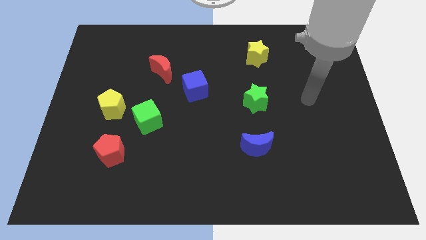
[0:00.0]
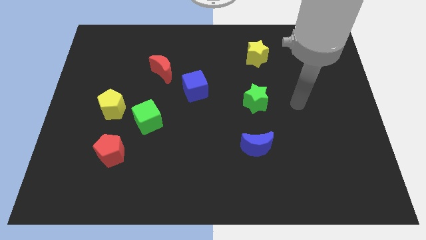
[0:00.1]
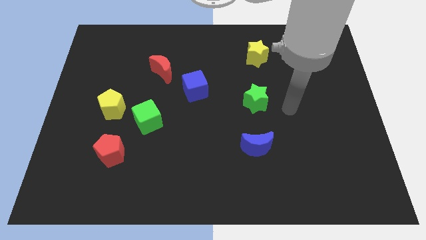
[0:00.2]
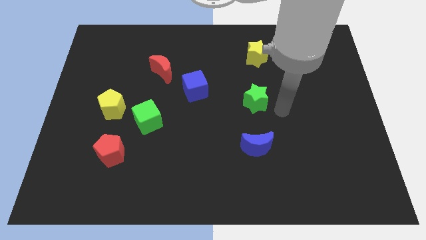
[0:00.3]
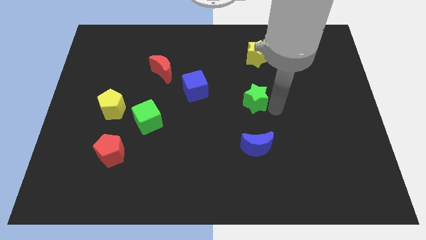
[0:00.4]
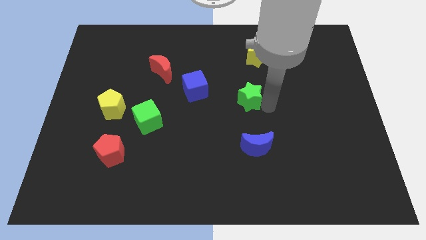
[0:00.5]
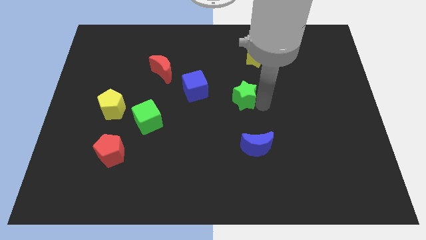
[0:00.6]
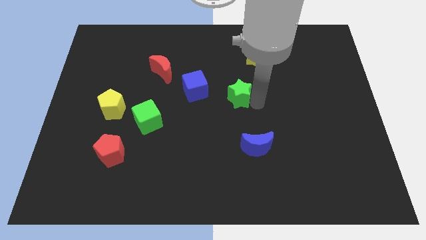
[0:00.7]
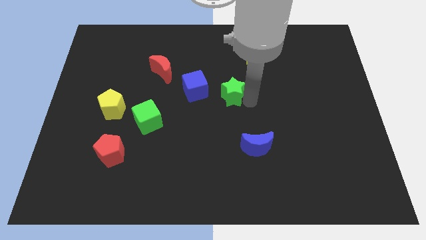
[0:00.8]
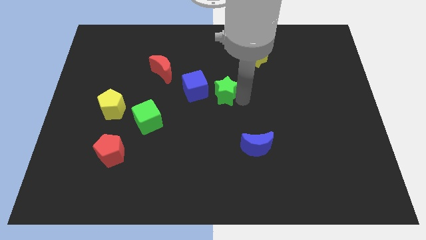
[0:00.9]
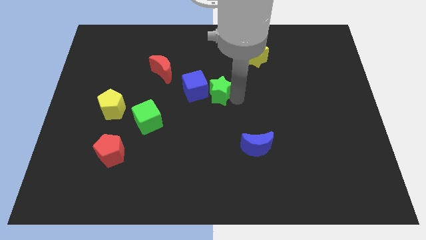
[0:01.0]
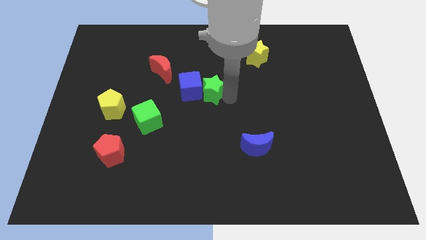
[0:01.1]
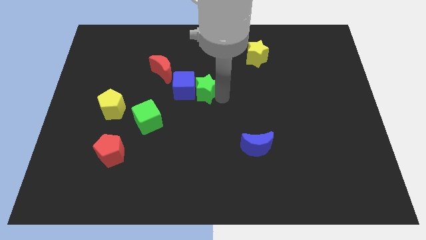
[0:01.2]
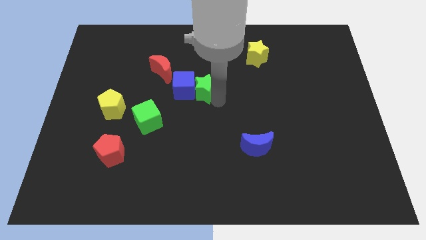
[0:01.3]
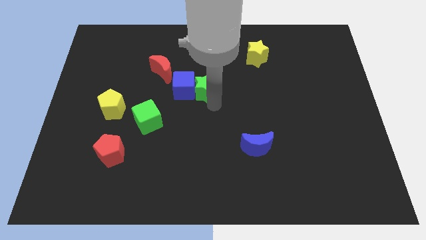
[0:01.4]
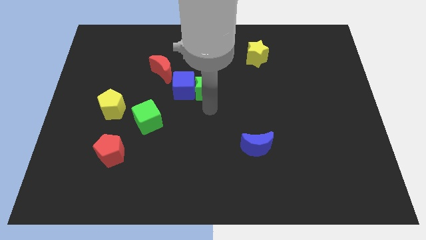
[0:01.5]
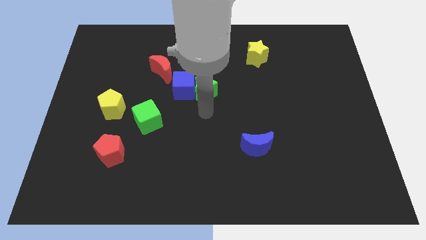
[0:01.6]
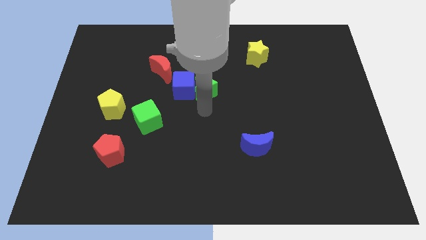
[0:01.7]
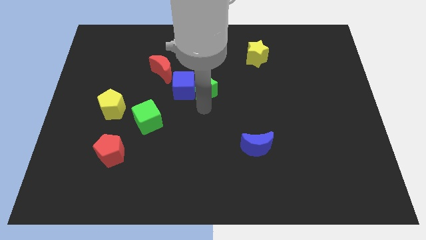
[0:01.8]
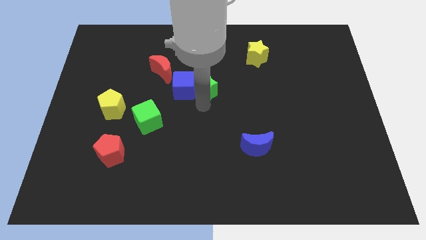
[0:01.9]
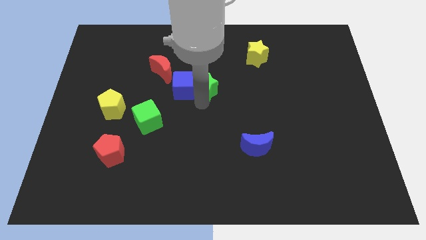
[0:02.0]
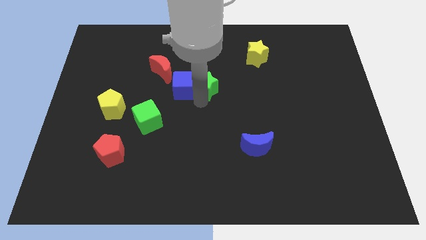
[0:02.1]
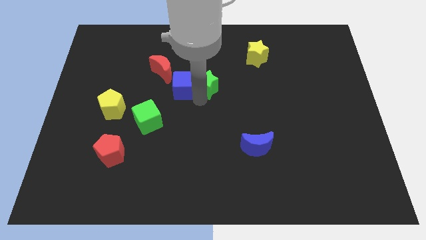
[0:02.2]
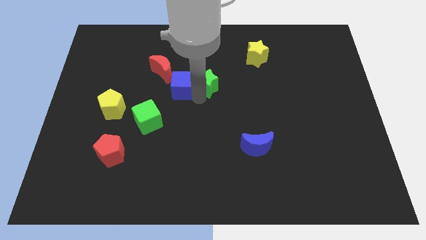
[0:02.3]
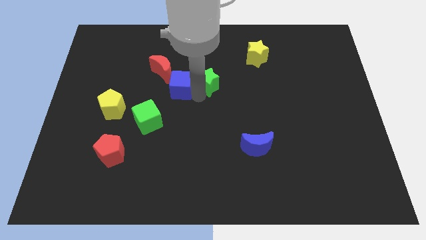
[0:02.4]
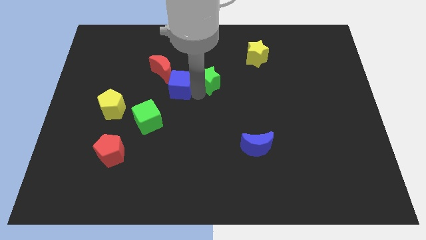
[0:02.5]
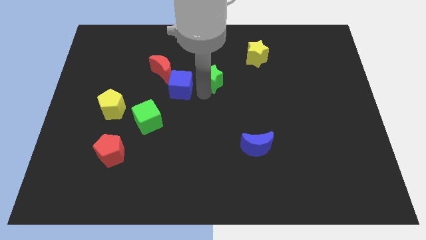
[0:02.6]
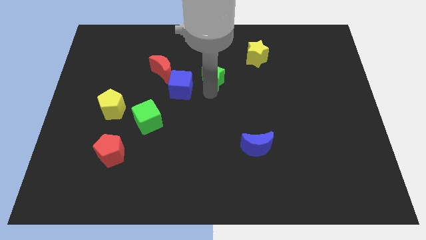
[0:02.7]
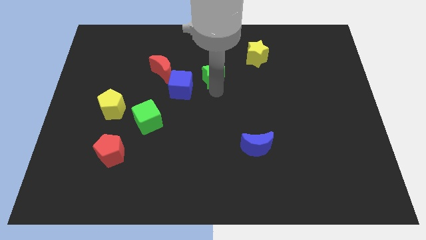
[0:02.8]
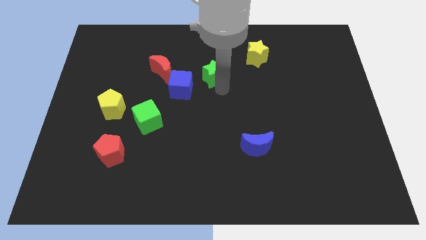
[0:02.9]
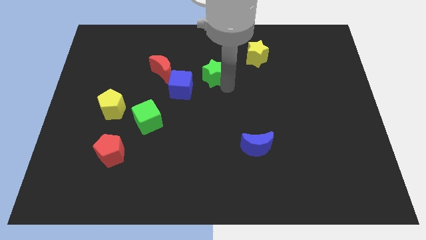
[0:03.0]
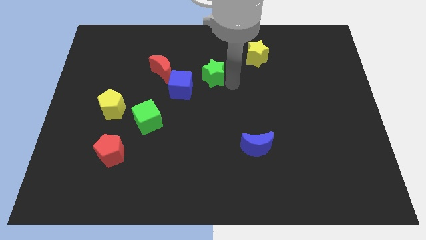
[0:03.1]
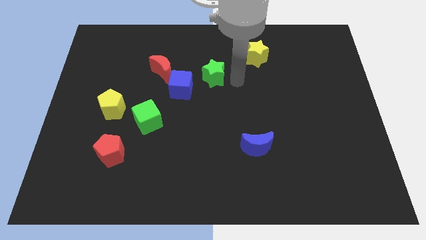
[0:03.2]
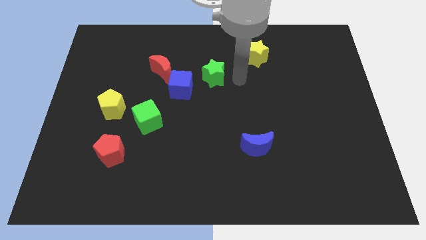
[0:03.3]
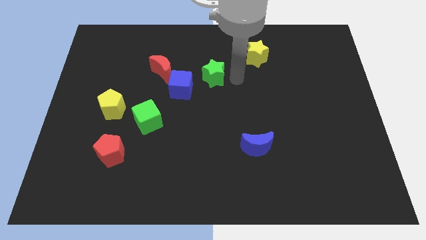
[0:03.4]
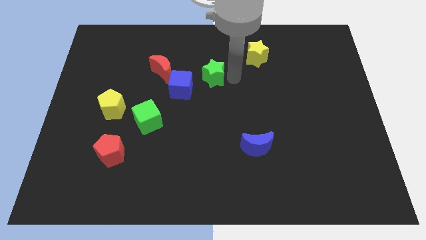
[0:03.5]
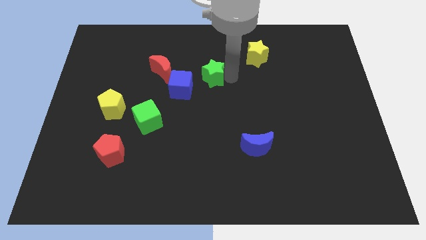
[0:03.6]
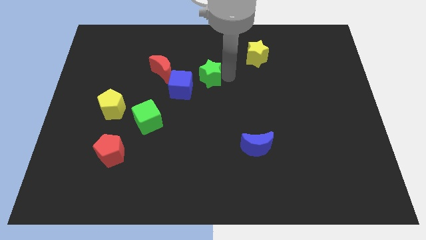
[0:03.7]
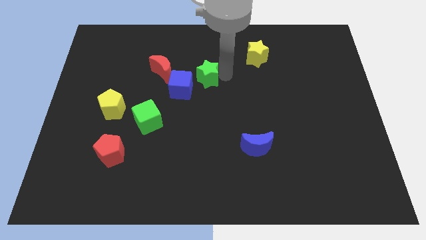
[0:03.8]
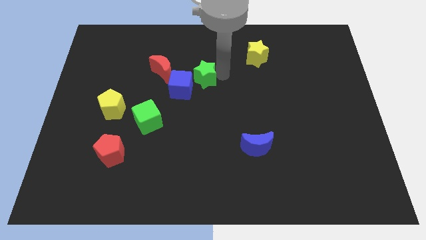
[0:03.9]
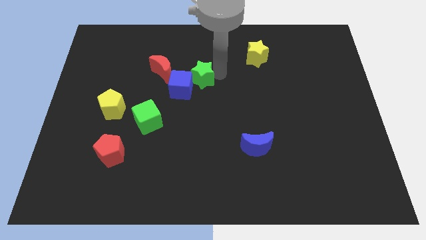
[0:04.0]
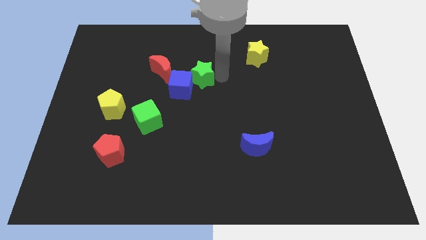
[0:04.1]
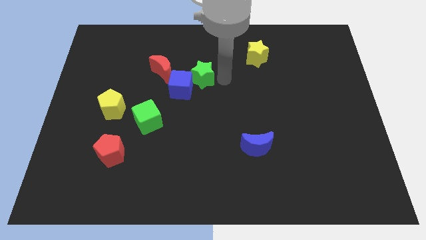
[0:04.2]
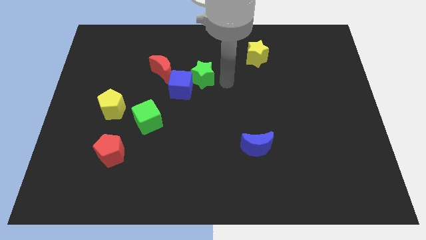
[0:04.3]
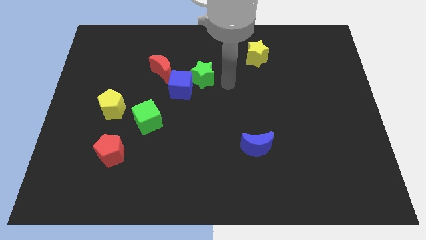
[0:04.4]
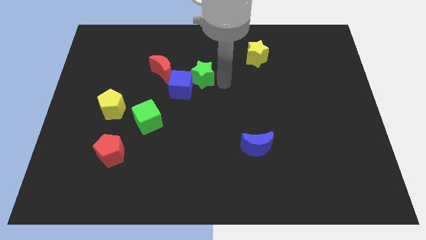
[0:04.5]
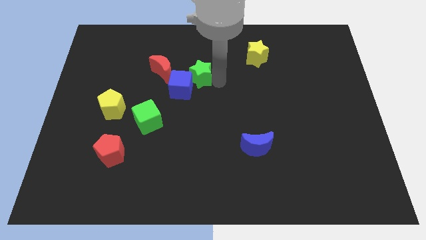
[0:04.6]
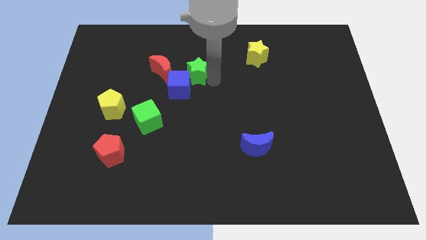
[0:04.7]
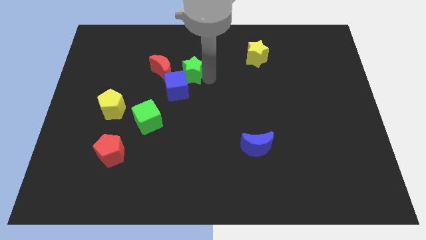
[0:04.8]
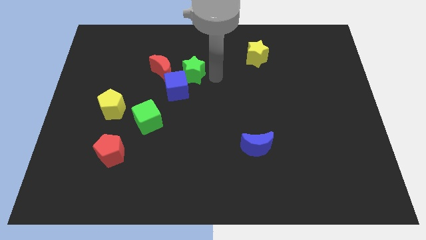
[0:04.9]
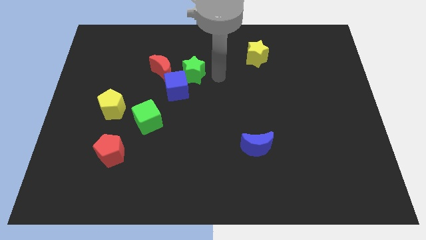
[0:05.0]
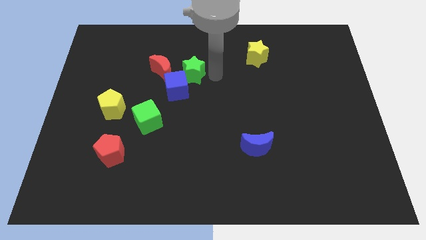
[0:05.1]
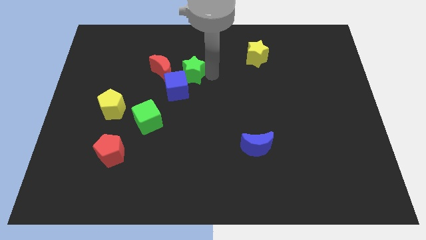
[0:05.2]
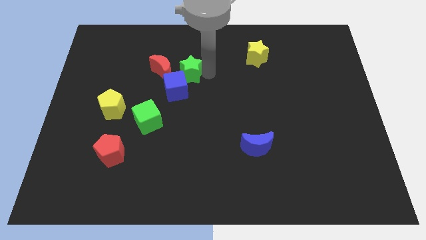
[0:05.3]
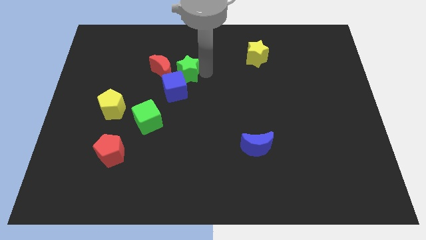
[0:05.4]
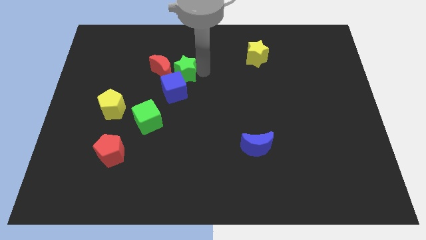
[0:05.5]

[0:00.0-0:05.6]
push the green star to the red moon

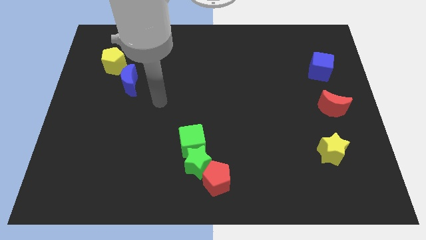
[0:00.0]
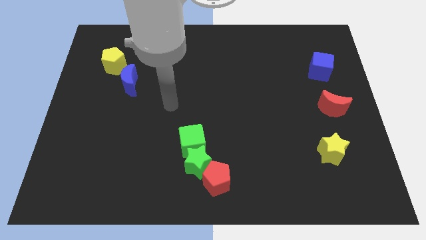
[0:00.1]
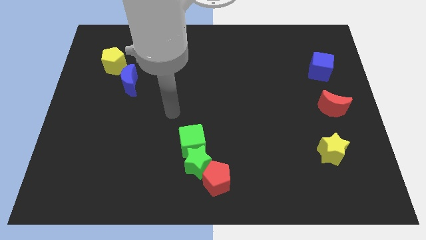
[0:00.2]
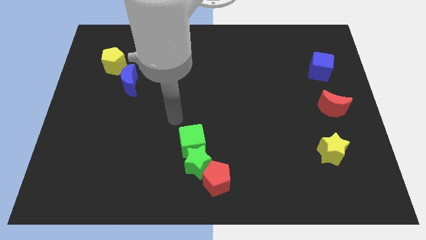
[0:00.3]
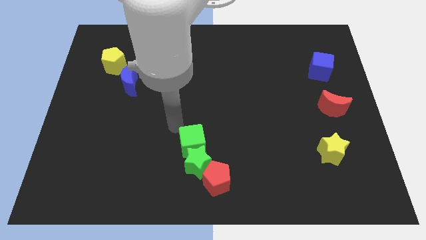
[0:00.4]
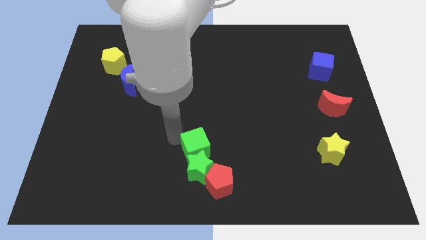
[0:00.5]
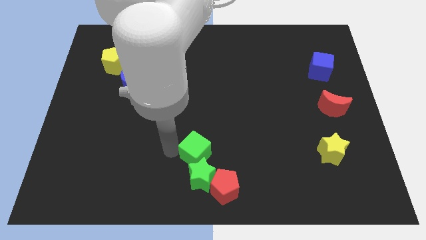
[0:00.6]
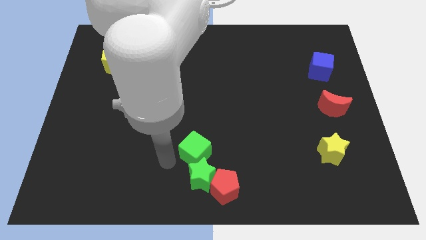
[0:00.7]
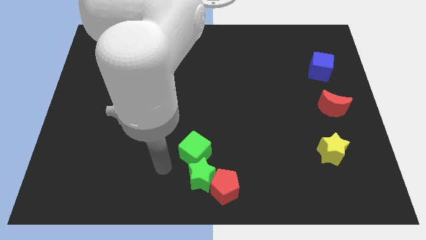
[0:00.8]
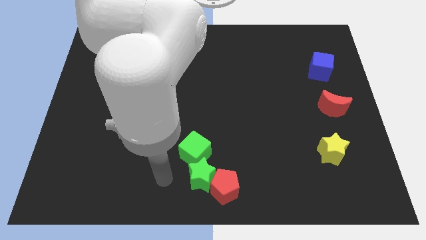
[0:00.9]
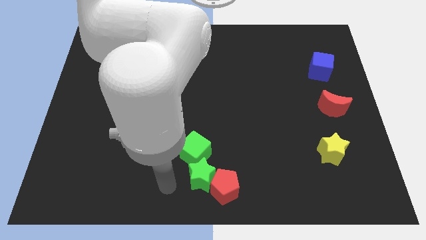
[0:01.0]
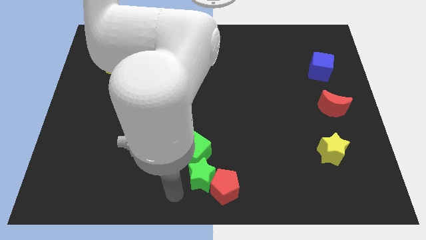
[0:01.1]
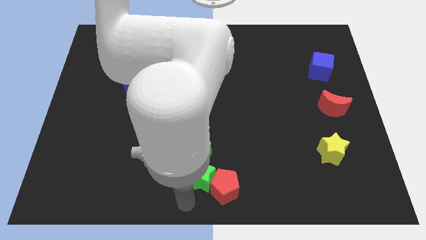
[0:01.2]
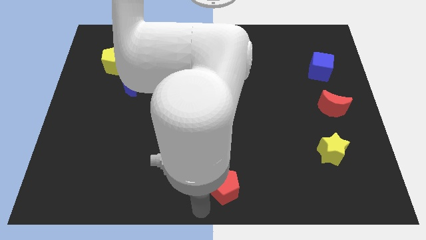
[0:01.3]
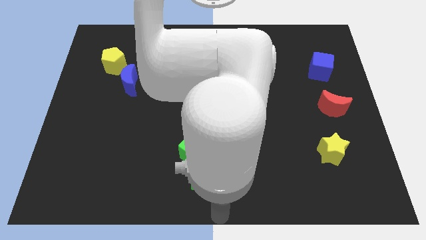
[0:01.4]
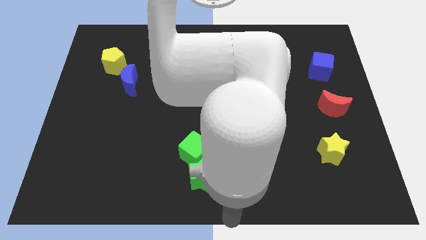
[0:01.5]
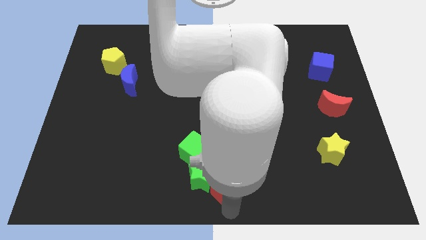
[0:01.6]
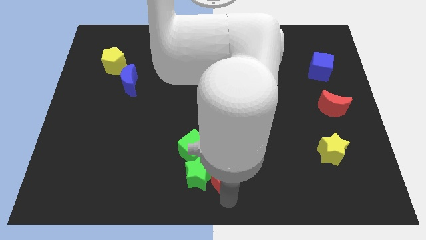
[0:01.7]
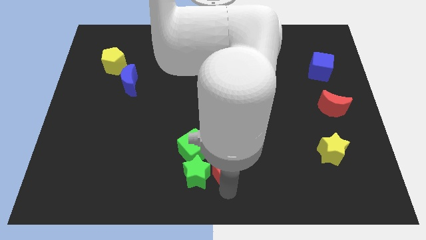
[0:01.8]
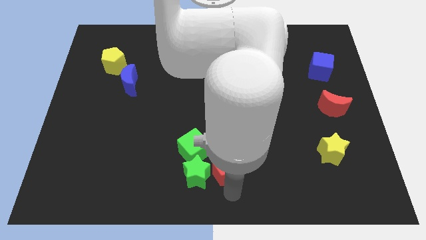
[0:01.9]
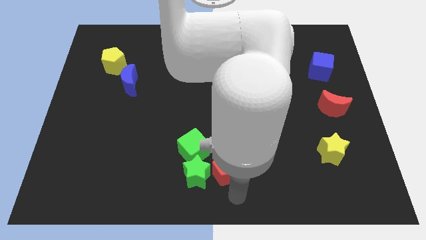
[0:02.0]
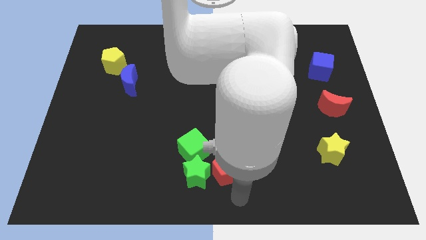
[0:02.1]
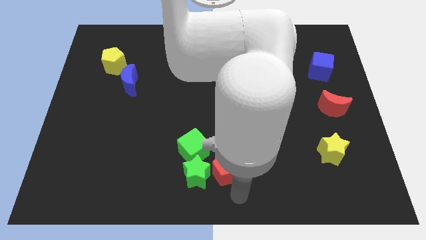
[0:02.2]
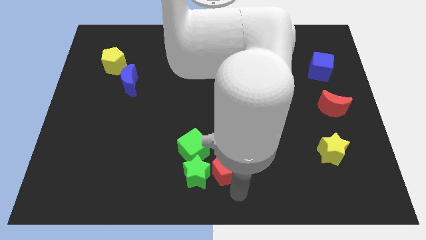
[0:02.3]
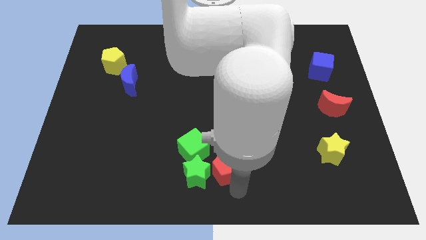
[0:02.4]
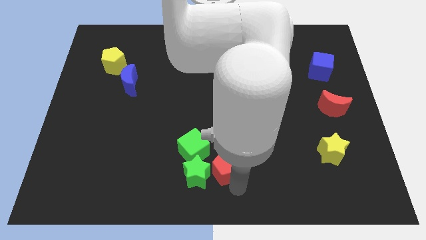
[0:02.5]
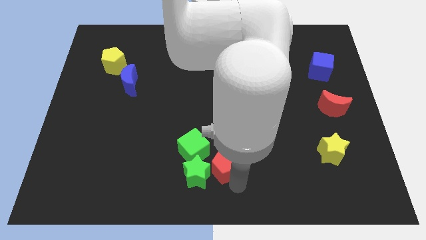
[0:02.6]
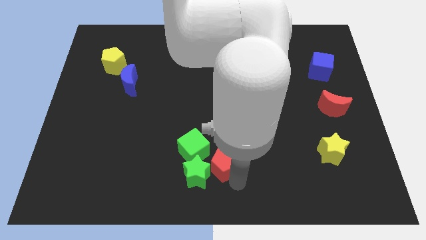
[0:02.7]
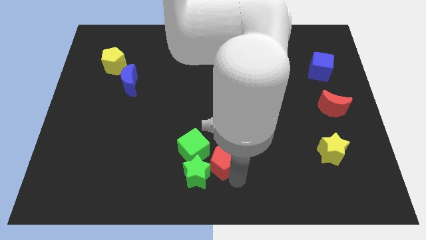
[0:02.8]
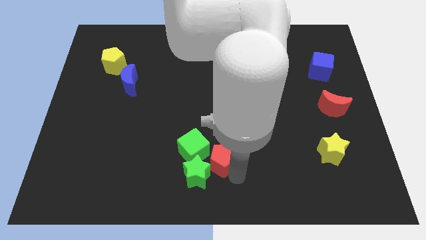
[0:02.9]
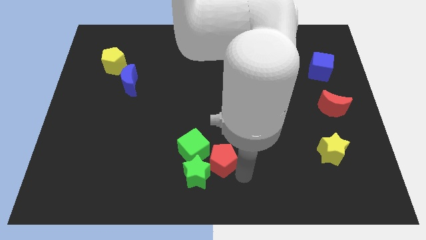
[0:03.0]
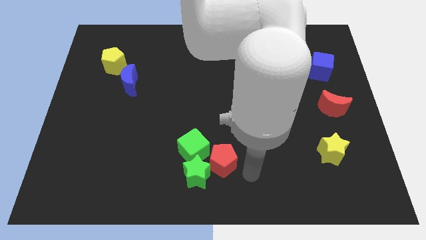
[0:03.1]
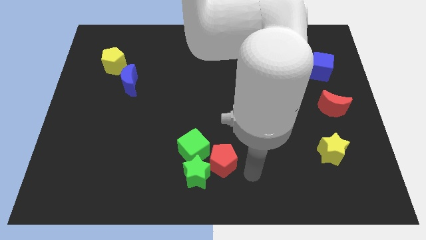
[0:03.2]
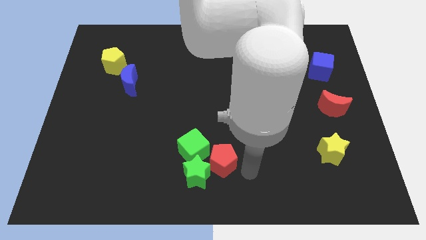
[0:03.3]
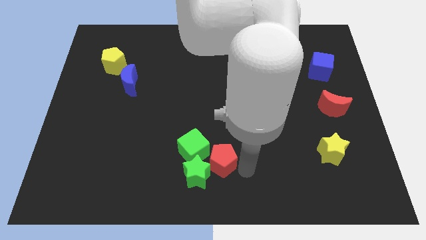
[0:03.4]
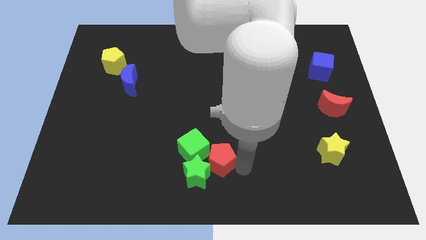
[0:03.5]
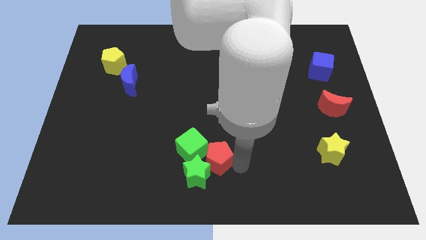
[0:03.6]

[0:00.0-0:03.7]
slide the red pentagon to the green cube
